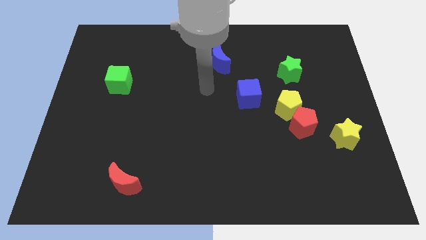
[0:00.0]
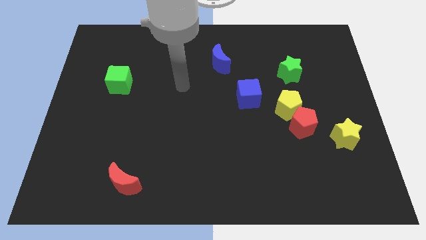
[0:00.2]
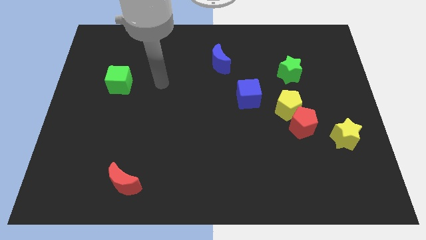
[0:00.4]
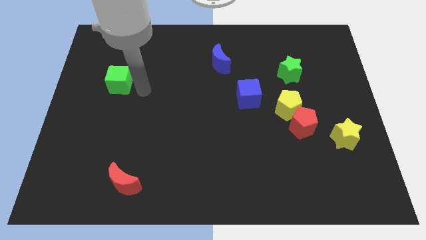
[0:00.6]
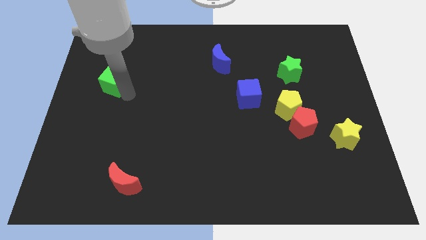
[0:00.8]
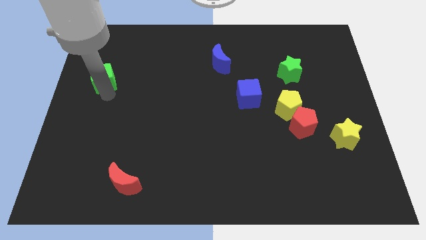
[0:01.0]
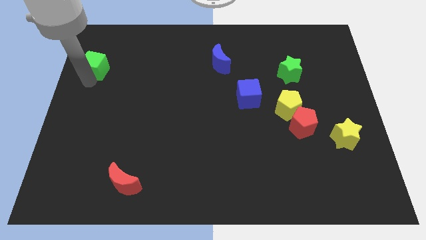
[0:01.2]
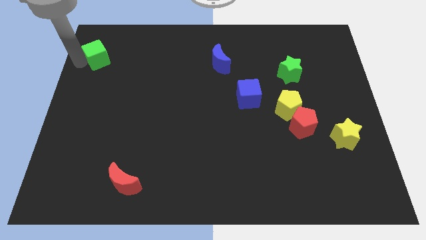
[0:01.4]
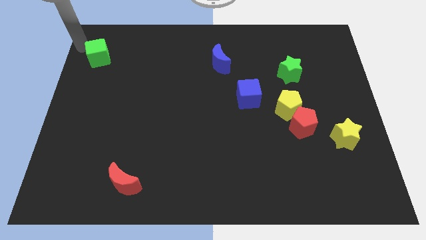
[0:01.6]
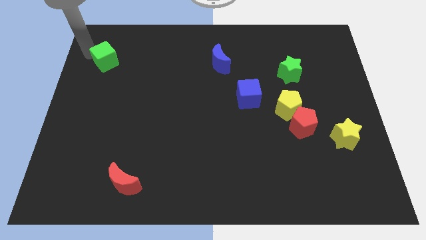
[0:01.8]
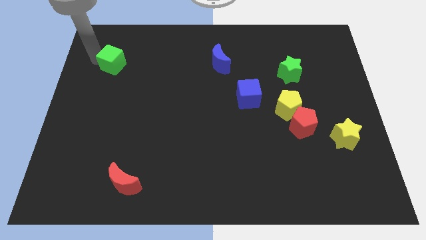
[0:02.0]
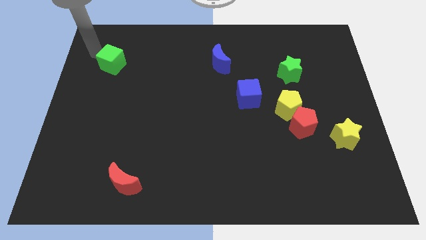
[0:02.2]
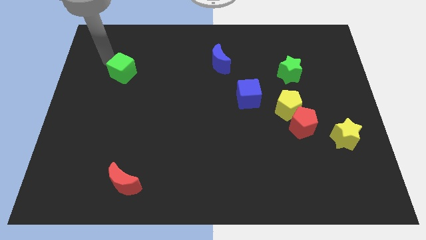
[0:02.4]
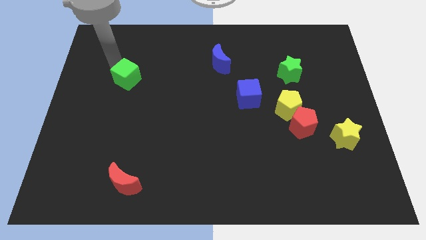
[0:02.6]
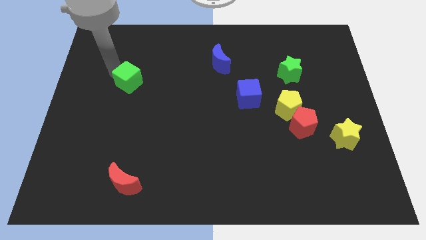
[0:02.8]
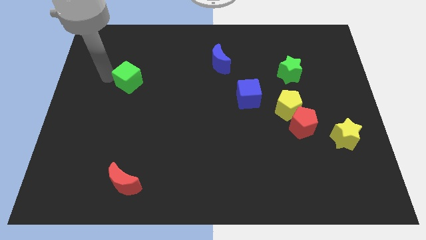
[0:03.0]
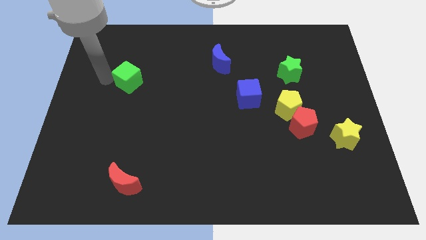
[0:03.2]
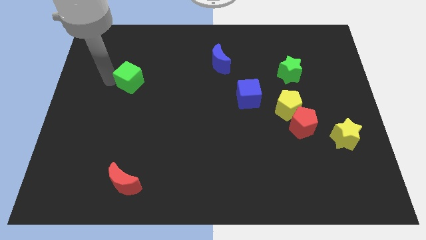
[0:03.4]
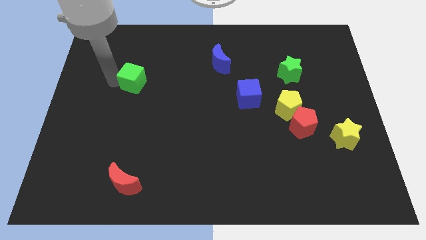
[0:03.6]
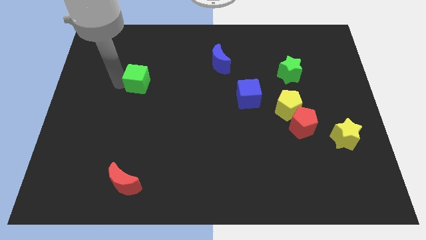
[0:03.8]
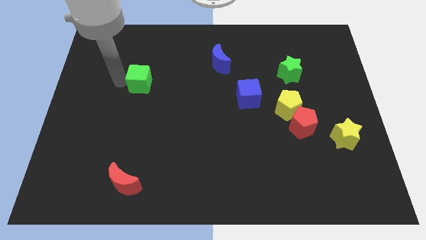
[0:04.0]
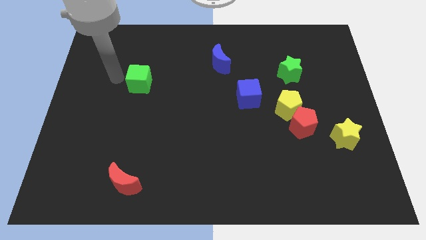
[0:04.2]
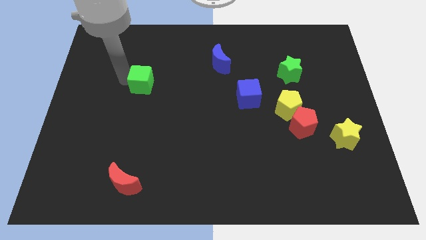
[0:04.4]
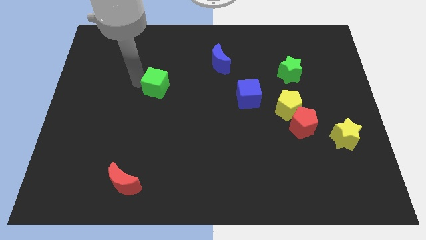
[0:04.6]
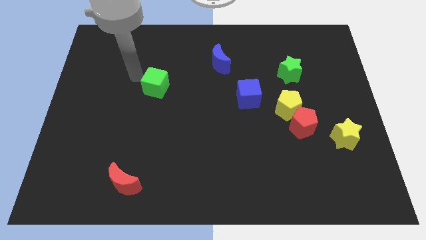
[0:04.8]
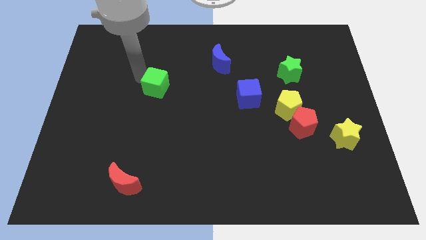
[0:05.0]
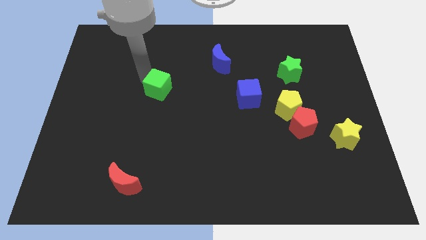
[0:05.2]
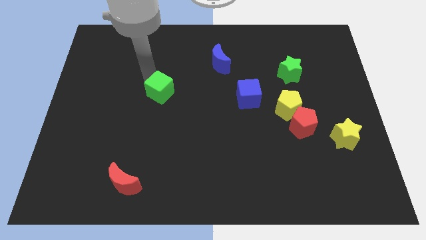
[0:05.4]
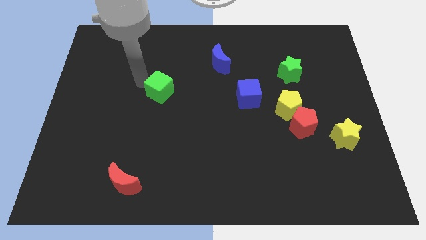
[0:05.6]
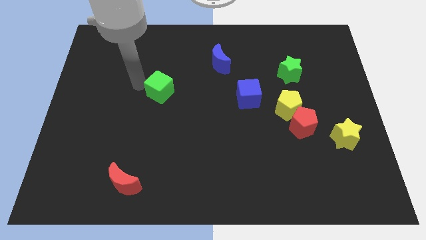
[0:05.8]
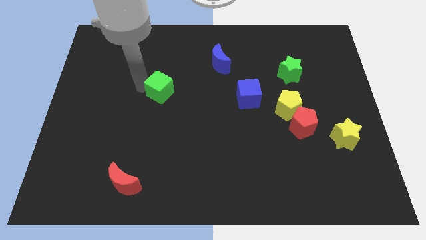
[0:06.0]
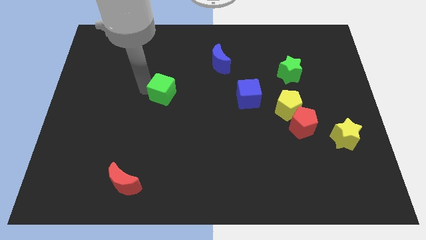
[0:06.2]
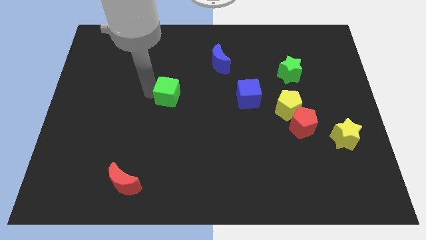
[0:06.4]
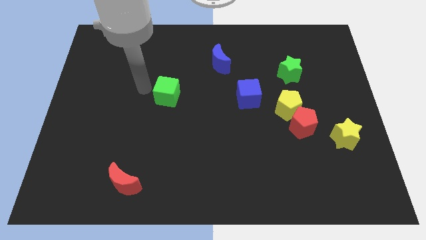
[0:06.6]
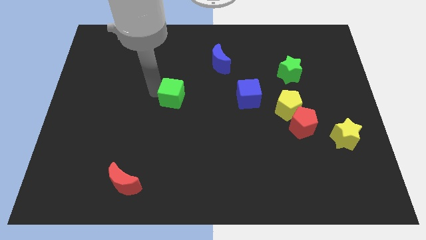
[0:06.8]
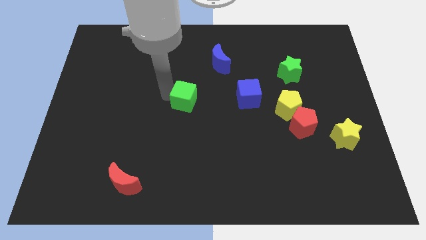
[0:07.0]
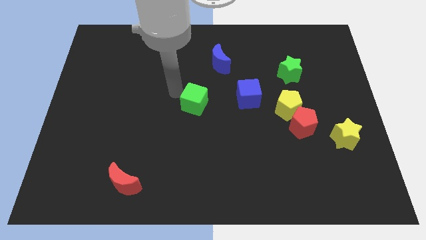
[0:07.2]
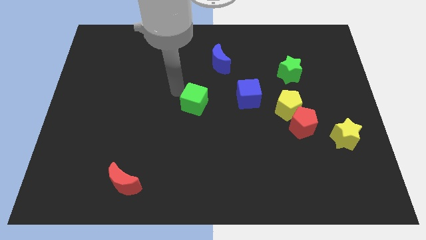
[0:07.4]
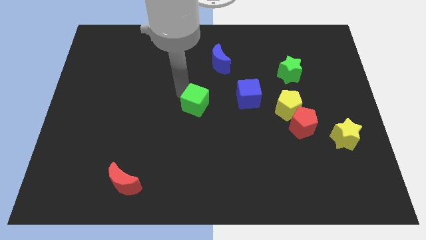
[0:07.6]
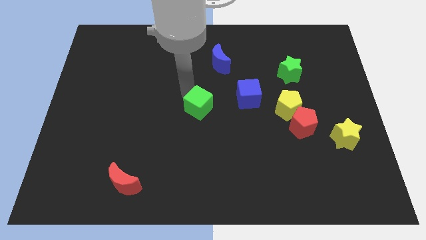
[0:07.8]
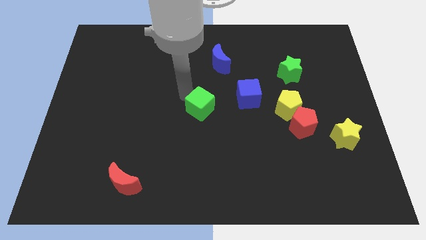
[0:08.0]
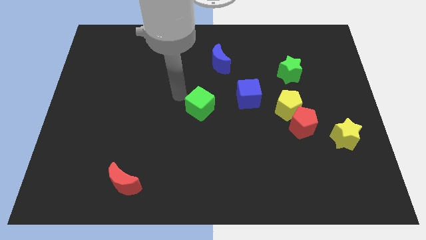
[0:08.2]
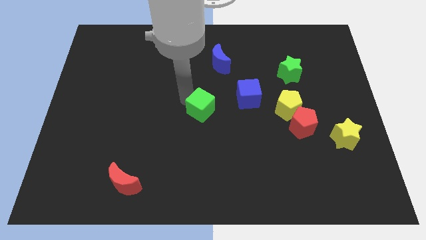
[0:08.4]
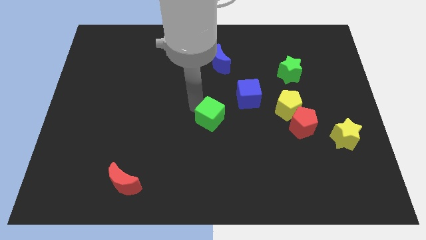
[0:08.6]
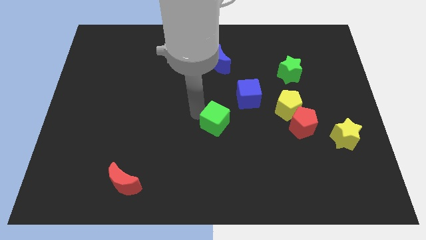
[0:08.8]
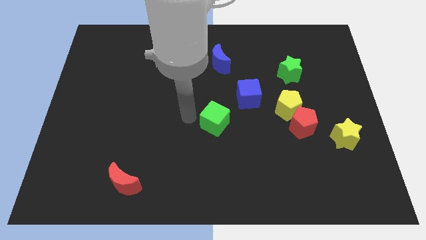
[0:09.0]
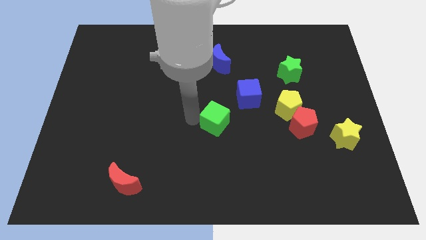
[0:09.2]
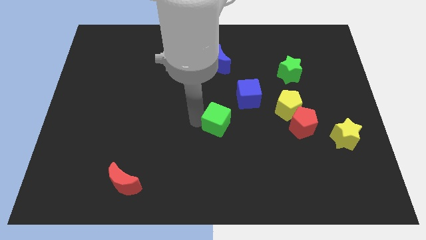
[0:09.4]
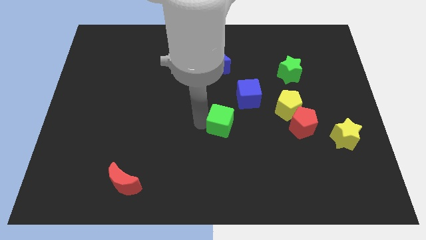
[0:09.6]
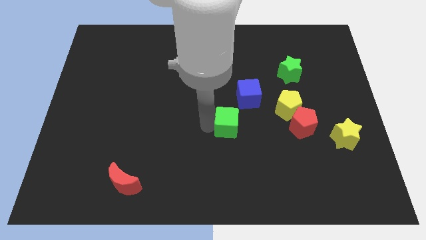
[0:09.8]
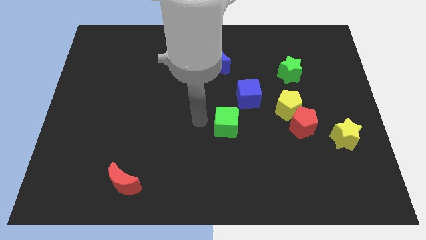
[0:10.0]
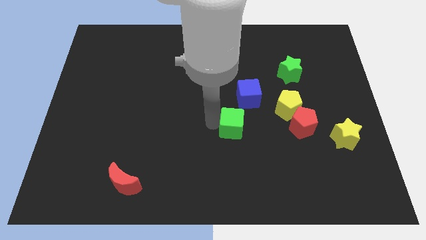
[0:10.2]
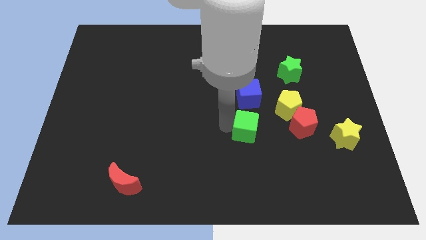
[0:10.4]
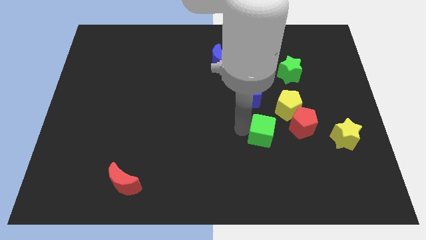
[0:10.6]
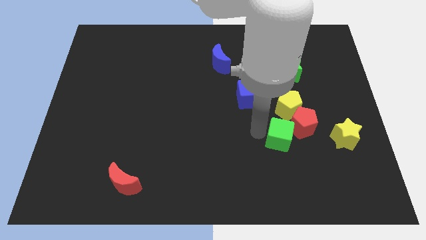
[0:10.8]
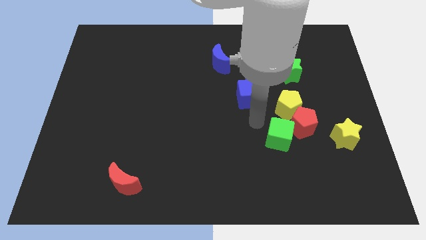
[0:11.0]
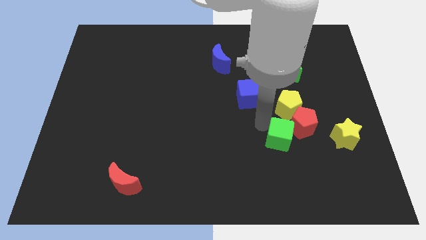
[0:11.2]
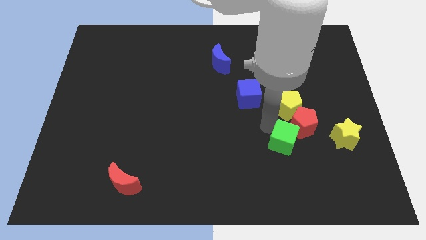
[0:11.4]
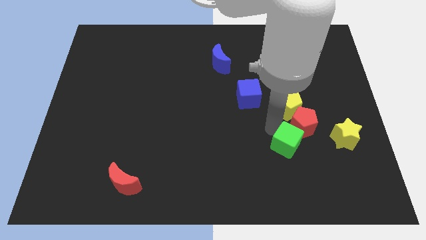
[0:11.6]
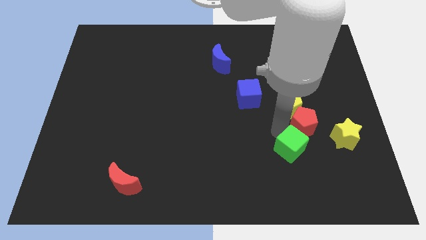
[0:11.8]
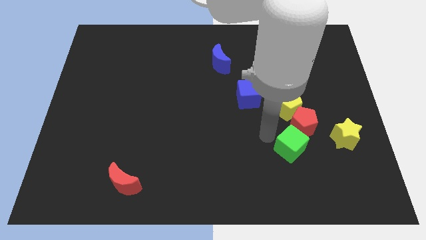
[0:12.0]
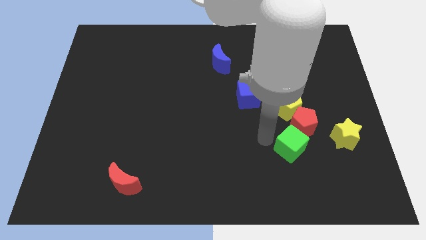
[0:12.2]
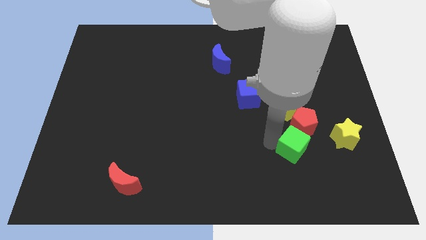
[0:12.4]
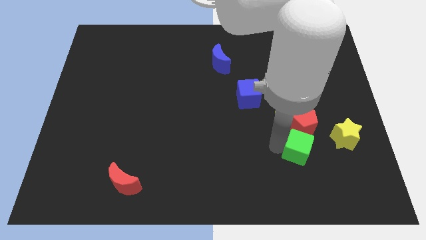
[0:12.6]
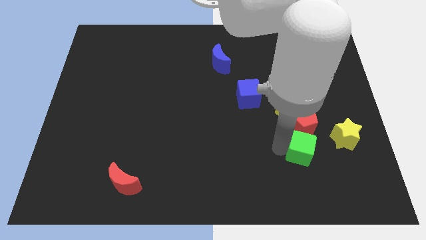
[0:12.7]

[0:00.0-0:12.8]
put the green cube diagonally down and to the left of the yellow star

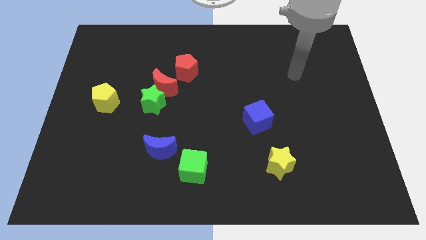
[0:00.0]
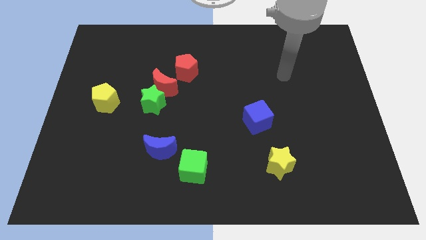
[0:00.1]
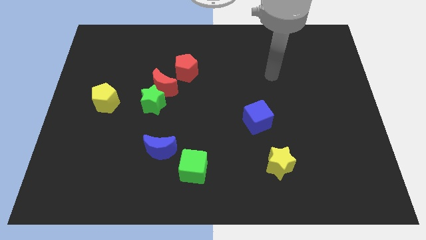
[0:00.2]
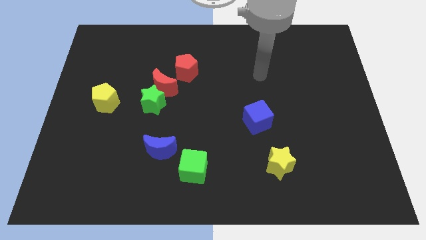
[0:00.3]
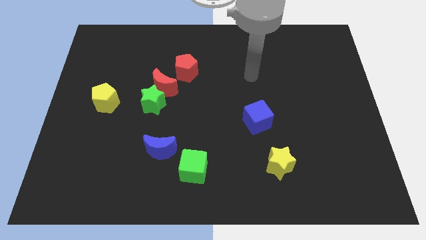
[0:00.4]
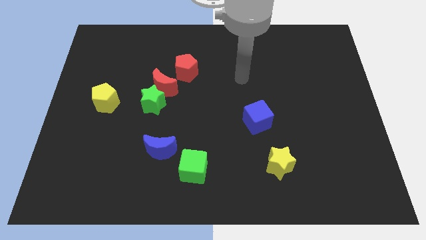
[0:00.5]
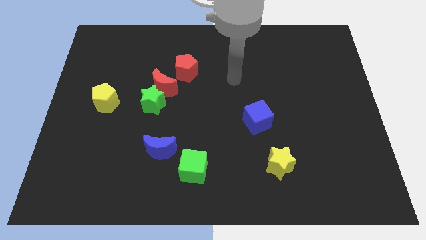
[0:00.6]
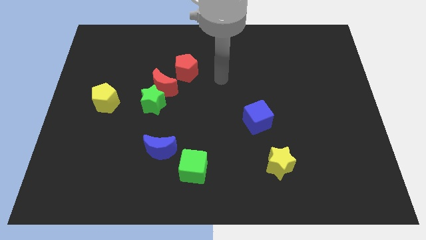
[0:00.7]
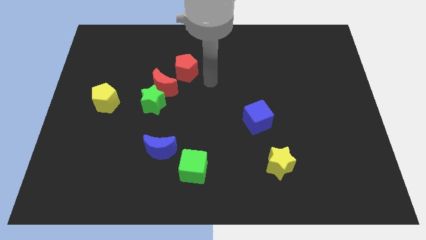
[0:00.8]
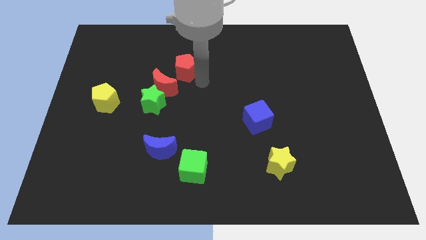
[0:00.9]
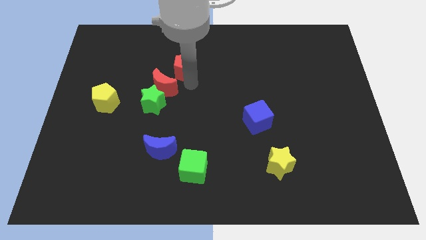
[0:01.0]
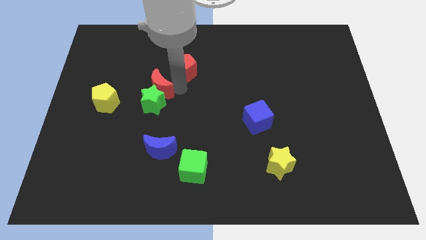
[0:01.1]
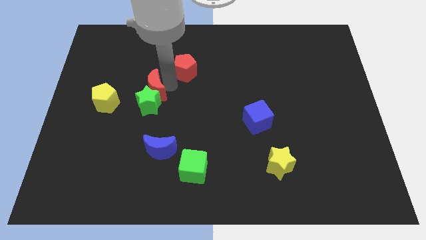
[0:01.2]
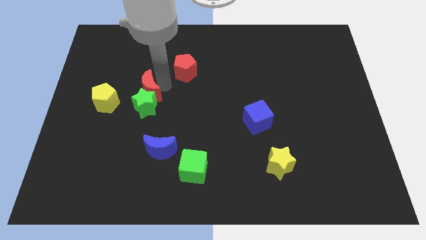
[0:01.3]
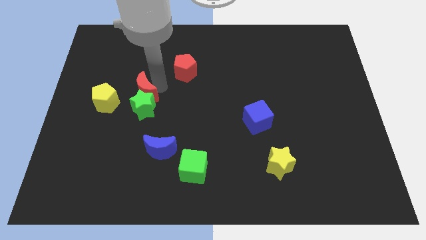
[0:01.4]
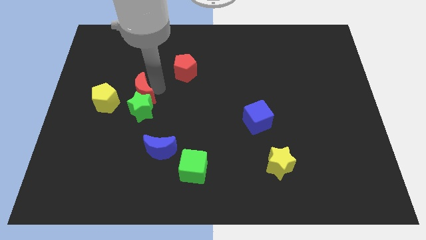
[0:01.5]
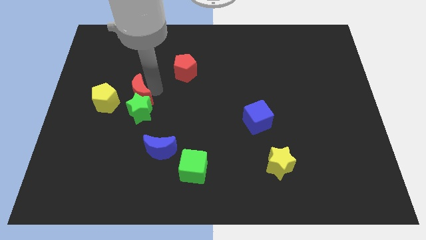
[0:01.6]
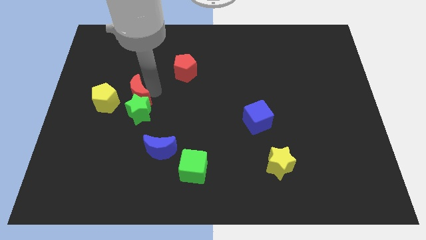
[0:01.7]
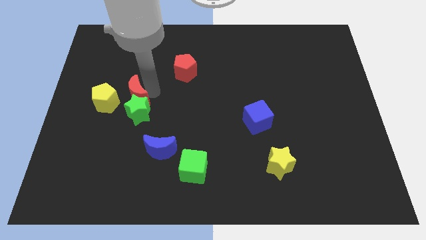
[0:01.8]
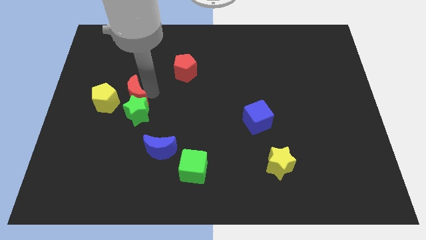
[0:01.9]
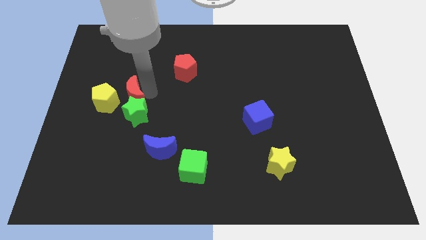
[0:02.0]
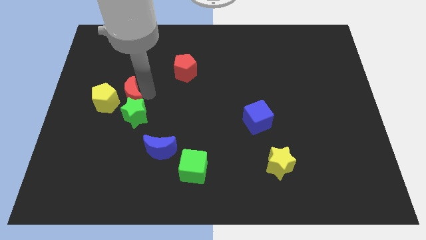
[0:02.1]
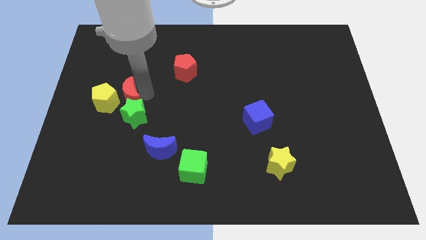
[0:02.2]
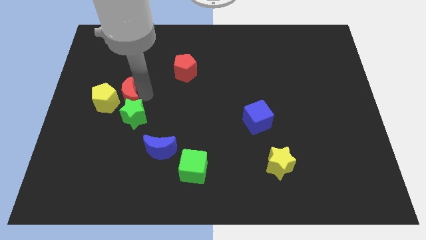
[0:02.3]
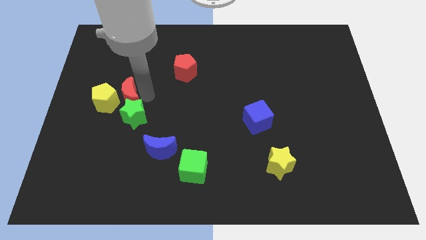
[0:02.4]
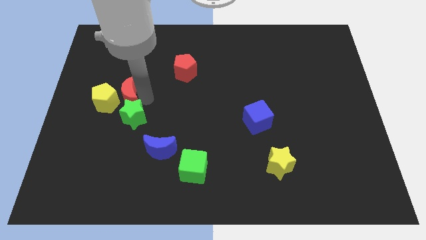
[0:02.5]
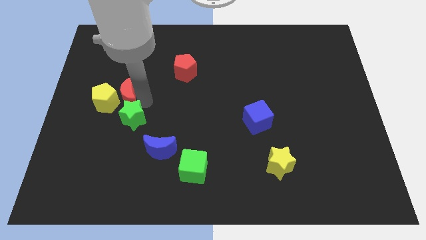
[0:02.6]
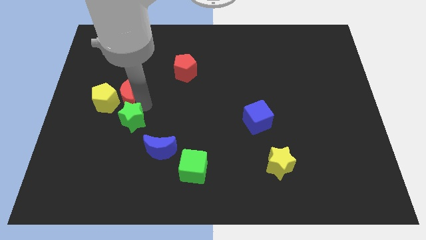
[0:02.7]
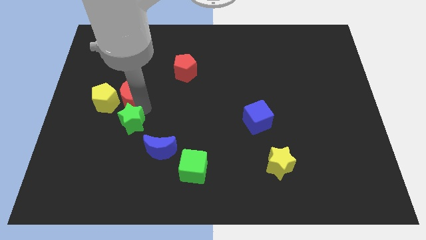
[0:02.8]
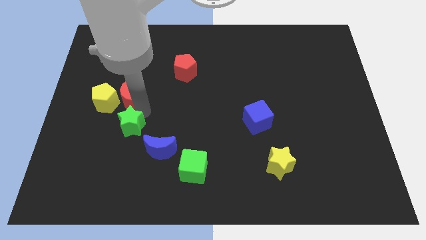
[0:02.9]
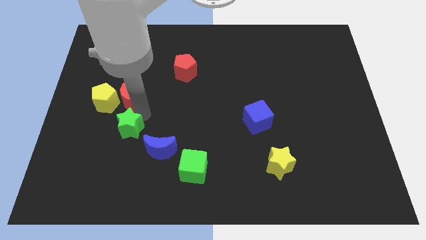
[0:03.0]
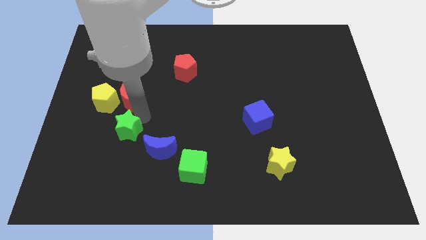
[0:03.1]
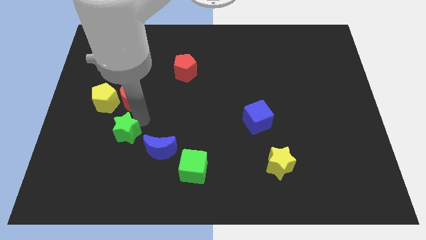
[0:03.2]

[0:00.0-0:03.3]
slide the green star left of the blue moon
